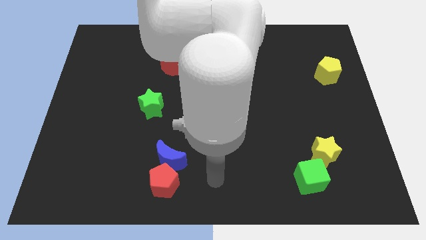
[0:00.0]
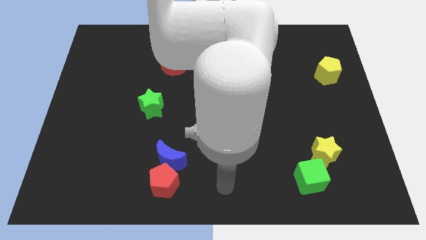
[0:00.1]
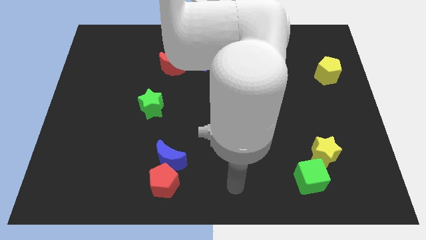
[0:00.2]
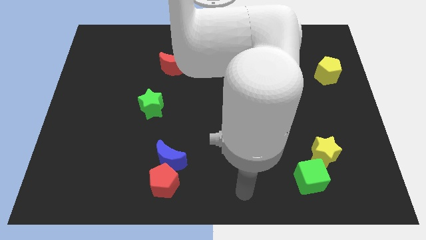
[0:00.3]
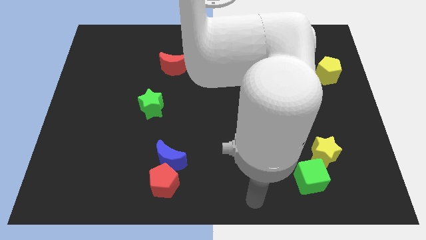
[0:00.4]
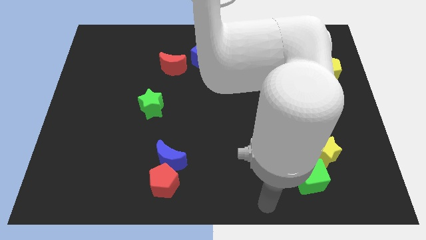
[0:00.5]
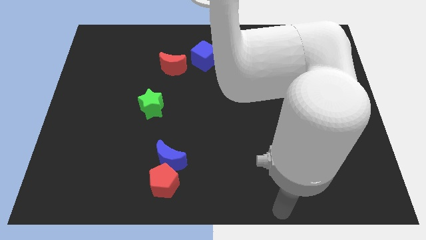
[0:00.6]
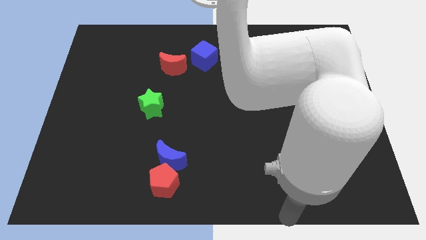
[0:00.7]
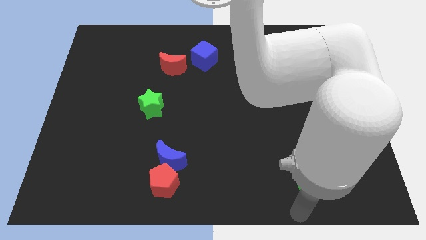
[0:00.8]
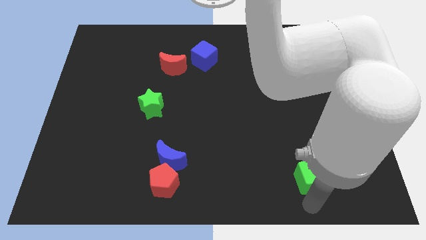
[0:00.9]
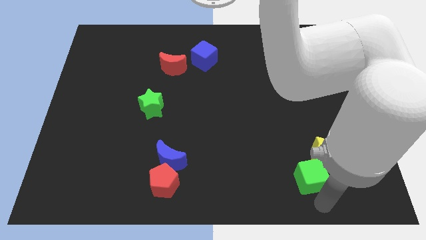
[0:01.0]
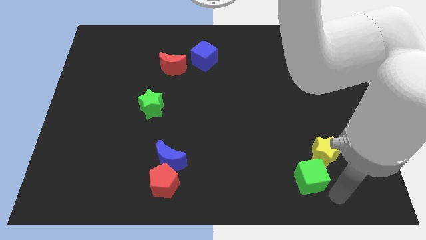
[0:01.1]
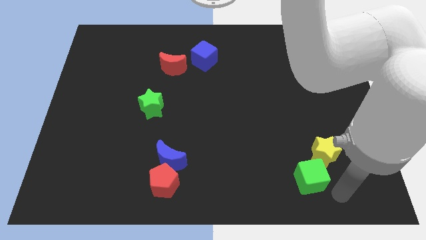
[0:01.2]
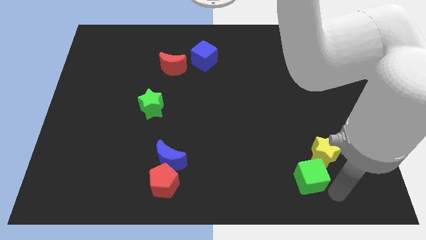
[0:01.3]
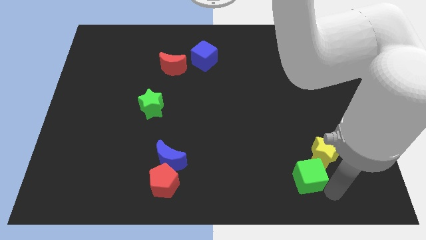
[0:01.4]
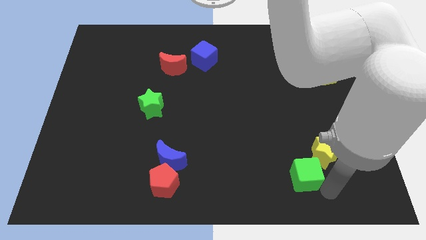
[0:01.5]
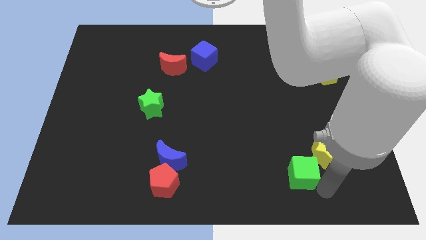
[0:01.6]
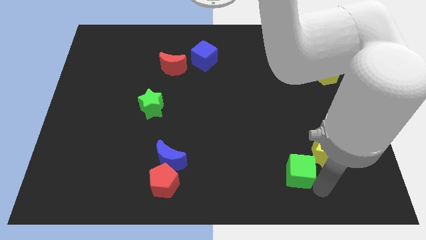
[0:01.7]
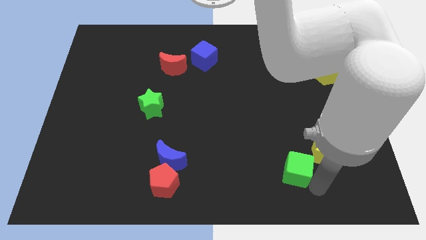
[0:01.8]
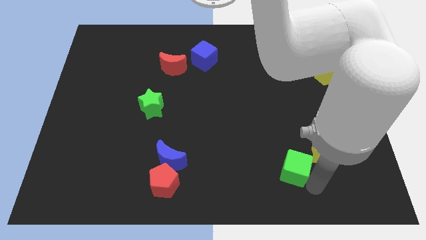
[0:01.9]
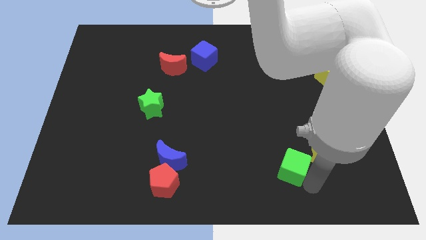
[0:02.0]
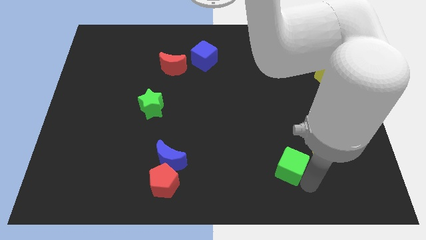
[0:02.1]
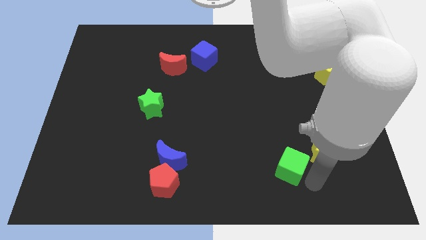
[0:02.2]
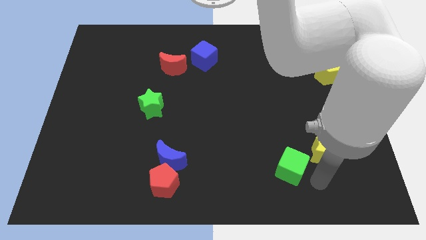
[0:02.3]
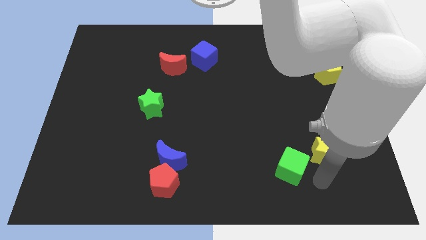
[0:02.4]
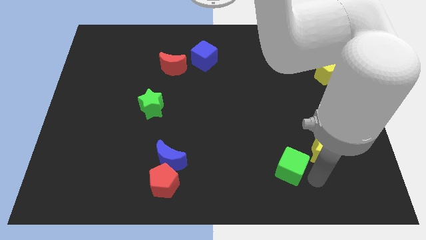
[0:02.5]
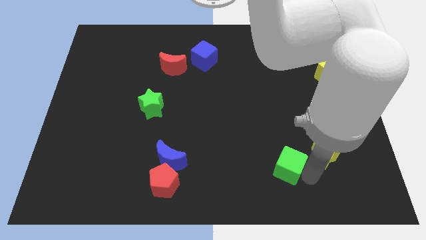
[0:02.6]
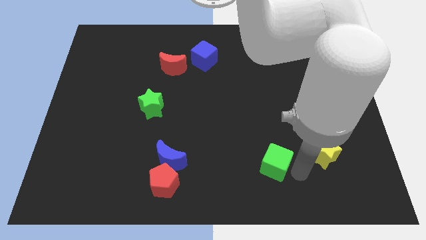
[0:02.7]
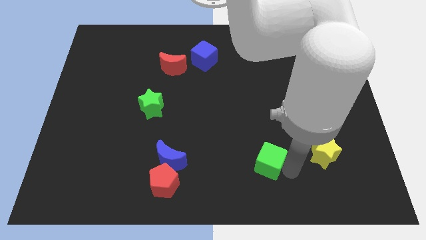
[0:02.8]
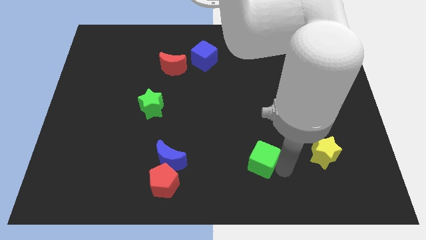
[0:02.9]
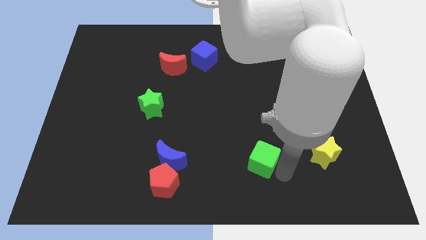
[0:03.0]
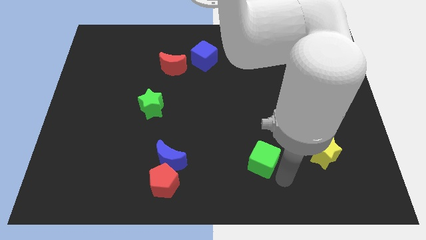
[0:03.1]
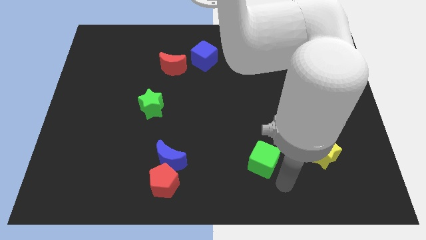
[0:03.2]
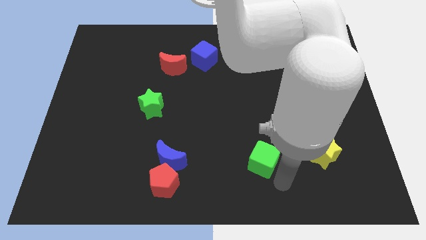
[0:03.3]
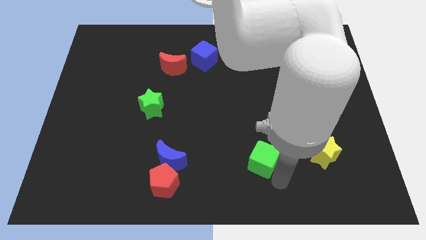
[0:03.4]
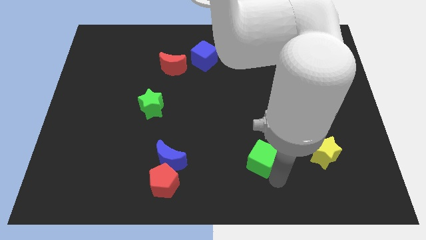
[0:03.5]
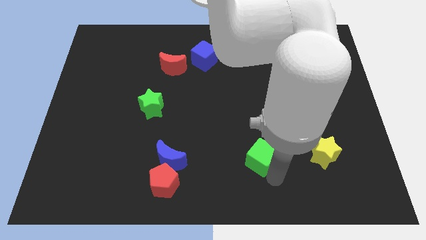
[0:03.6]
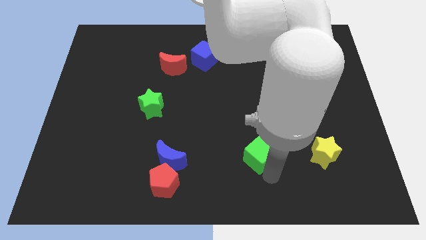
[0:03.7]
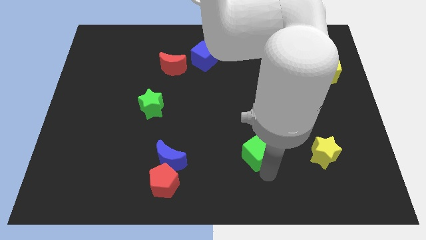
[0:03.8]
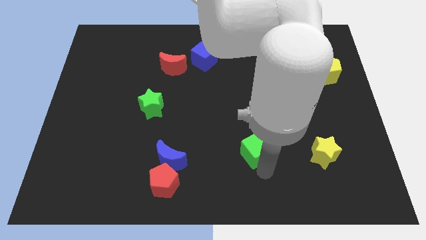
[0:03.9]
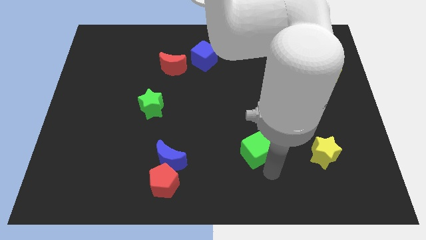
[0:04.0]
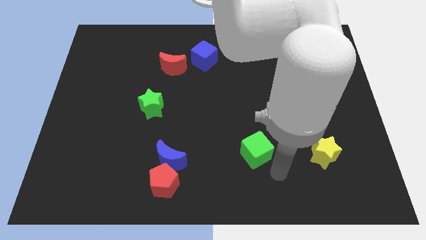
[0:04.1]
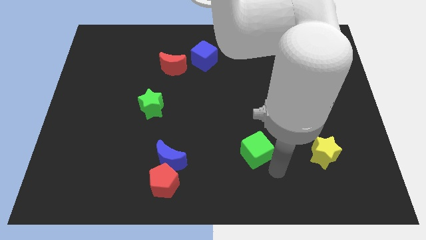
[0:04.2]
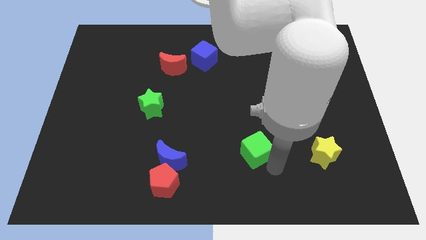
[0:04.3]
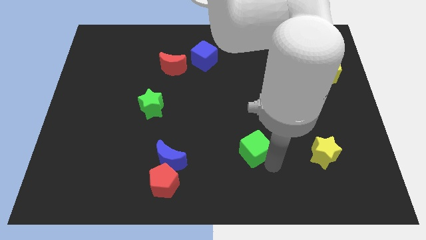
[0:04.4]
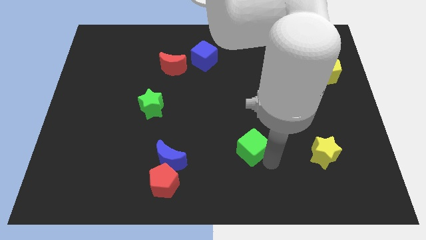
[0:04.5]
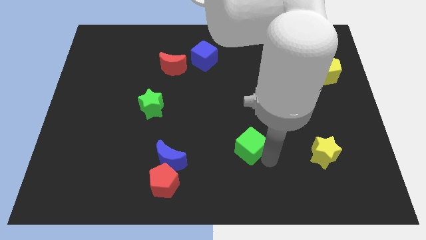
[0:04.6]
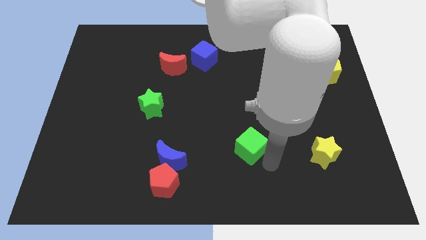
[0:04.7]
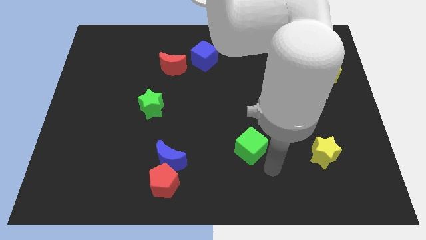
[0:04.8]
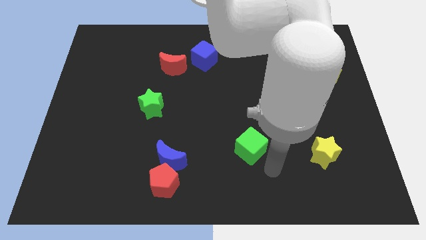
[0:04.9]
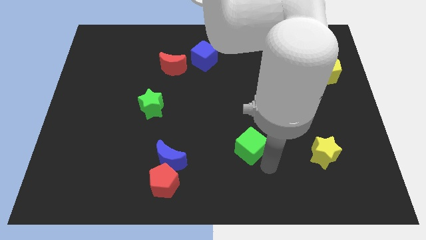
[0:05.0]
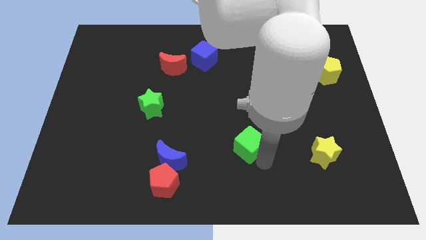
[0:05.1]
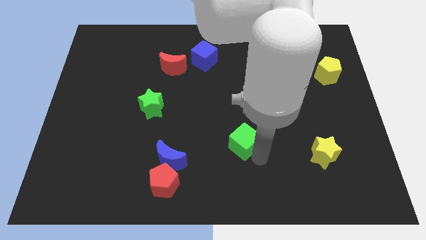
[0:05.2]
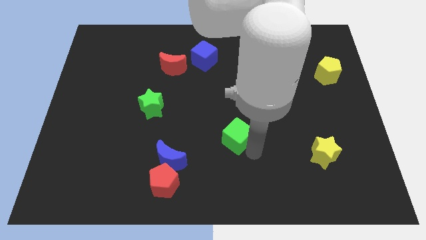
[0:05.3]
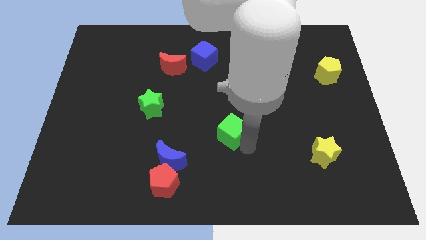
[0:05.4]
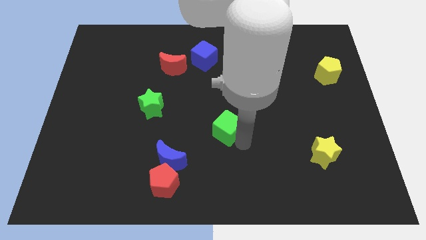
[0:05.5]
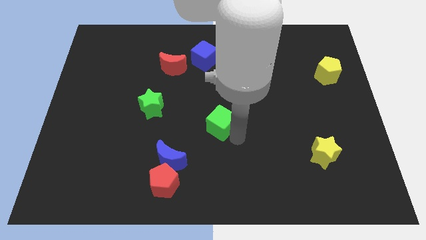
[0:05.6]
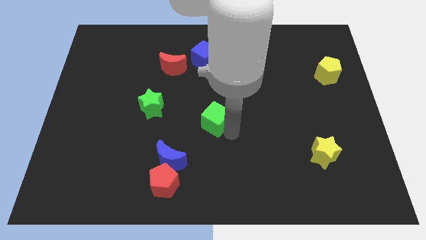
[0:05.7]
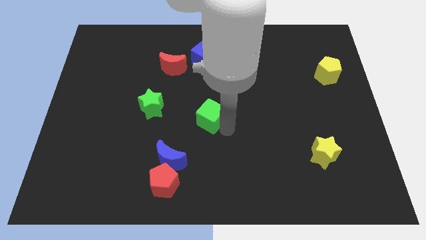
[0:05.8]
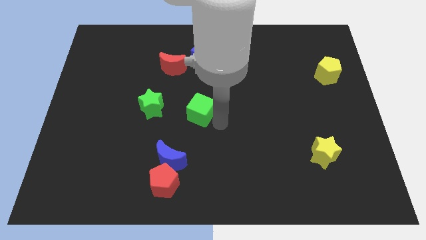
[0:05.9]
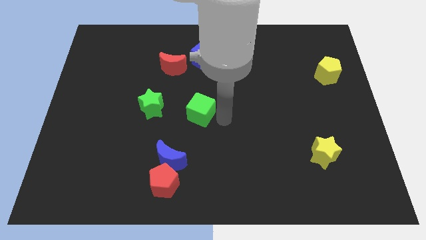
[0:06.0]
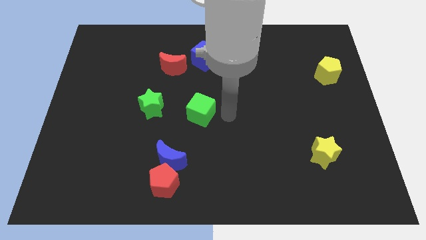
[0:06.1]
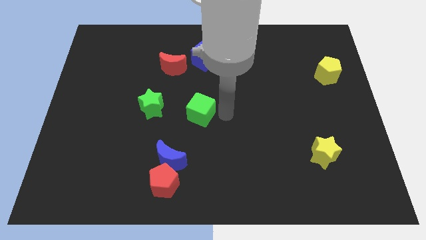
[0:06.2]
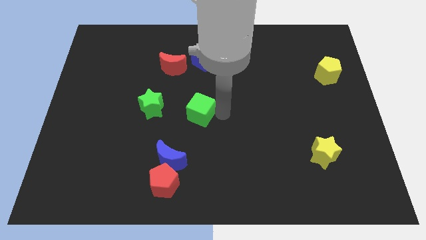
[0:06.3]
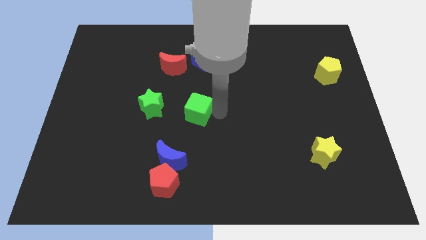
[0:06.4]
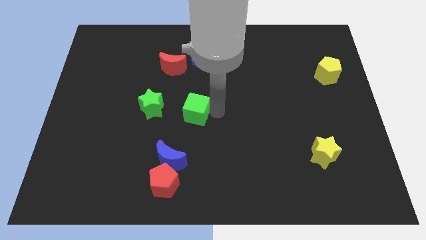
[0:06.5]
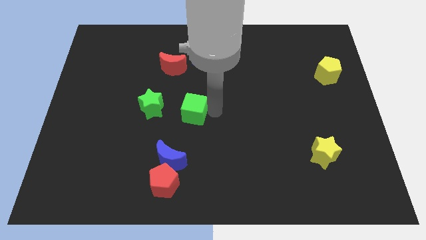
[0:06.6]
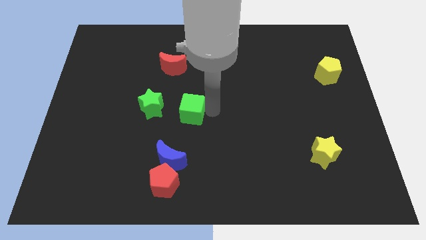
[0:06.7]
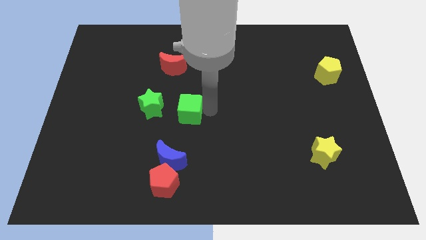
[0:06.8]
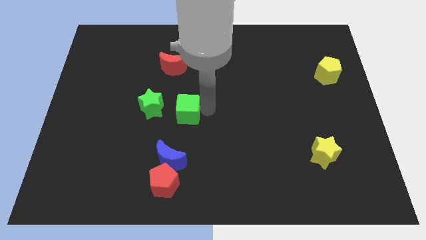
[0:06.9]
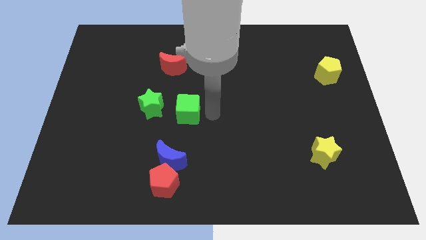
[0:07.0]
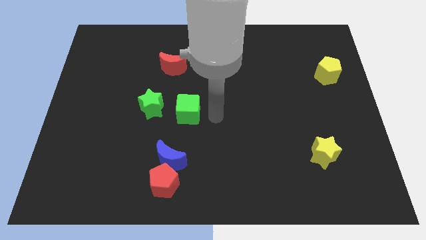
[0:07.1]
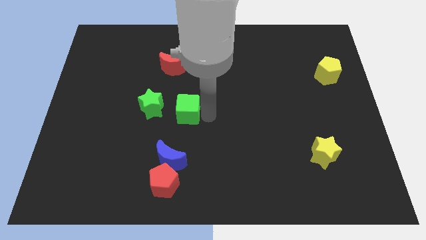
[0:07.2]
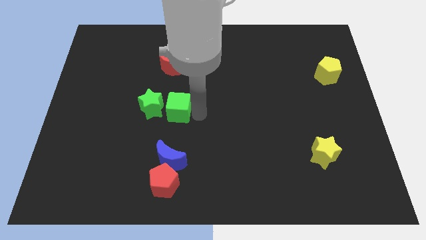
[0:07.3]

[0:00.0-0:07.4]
move the green cube next to the green star

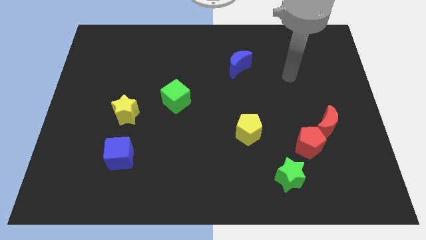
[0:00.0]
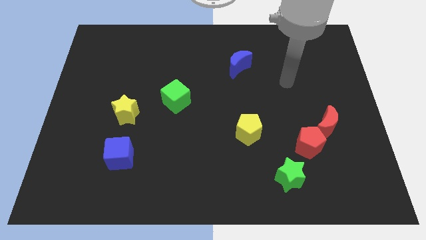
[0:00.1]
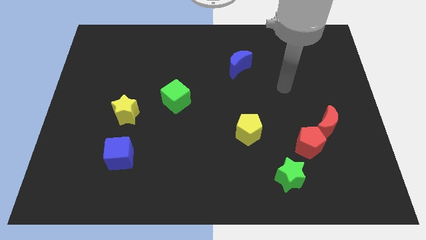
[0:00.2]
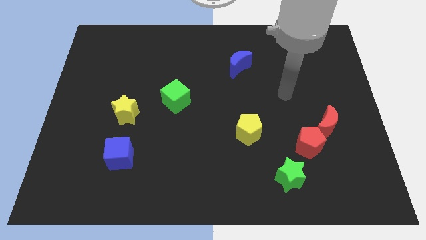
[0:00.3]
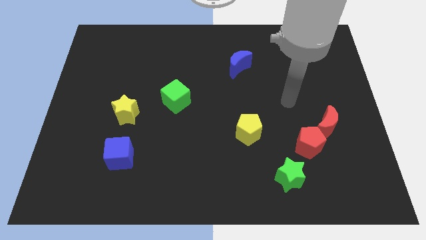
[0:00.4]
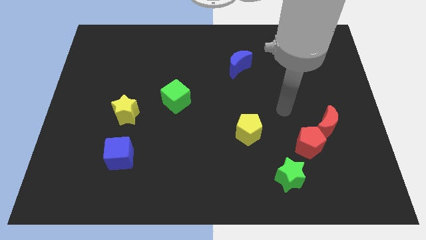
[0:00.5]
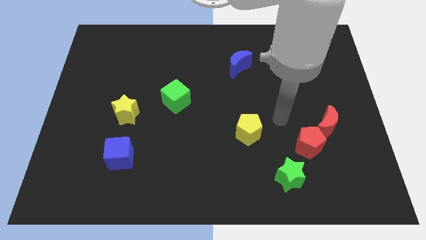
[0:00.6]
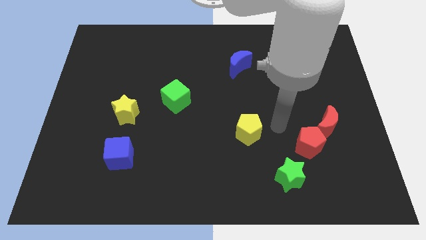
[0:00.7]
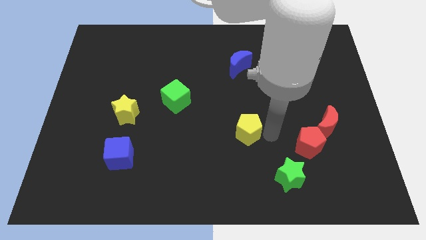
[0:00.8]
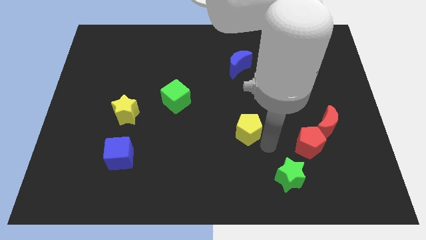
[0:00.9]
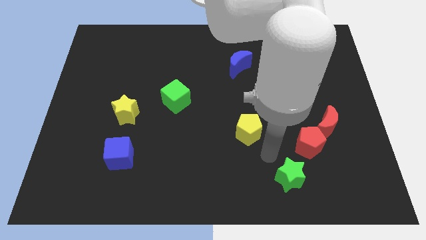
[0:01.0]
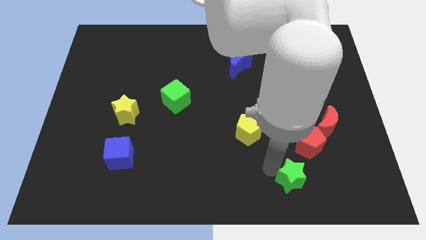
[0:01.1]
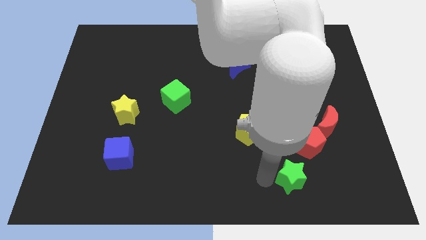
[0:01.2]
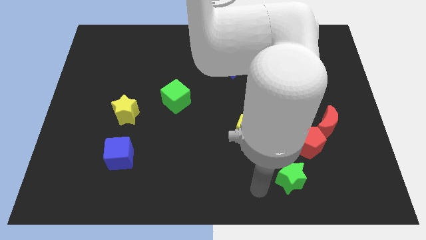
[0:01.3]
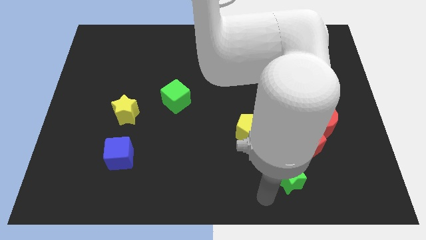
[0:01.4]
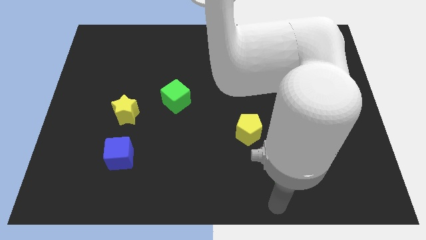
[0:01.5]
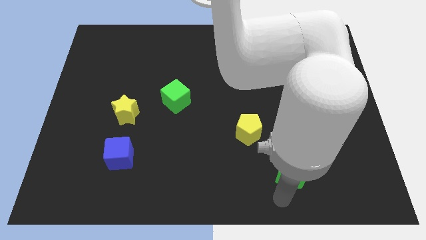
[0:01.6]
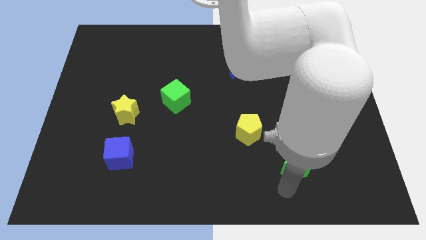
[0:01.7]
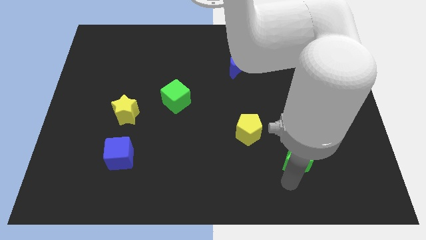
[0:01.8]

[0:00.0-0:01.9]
slide the green star towards the red pentagon
